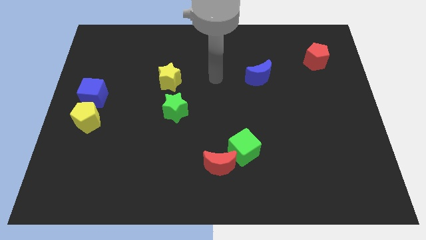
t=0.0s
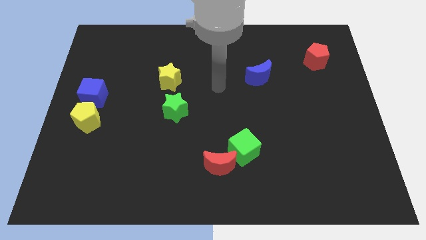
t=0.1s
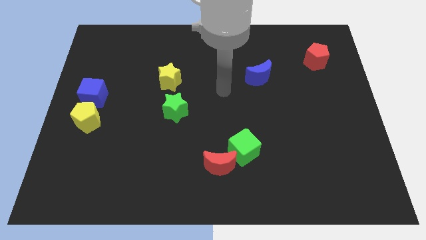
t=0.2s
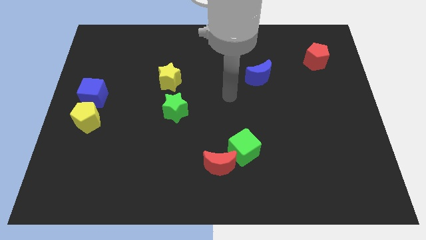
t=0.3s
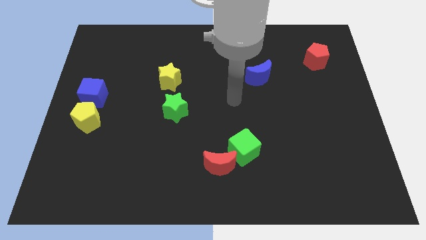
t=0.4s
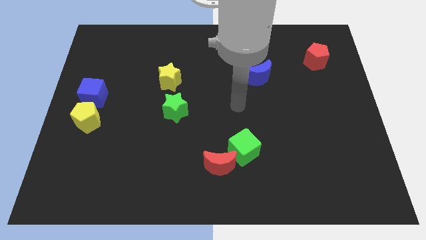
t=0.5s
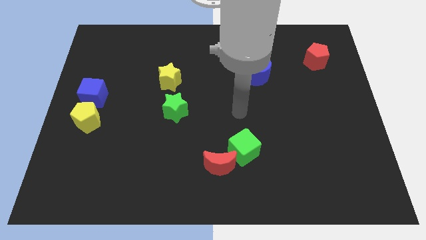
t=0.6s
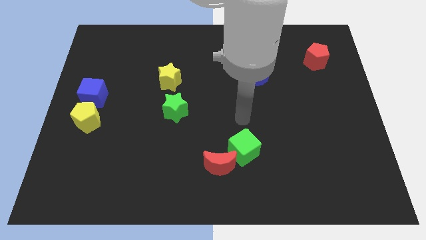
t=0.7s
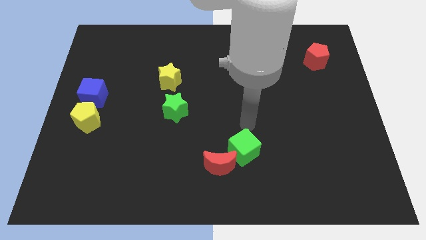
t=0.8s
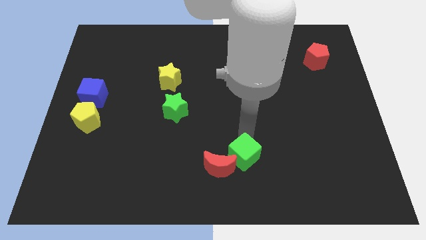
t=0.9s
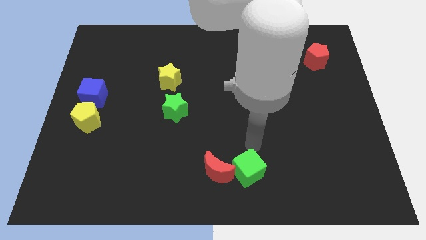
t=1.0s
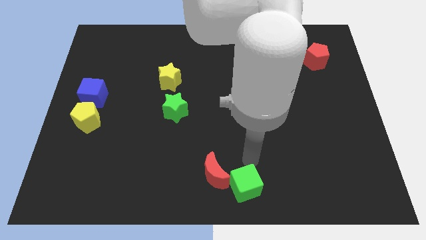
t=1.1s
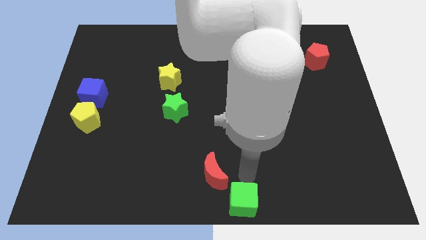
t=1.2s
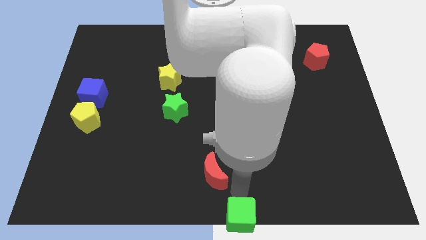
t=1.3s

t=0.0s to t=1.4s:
pull the red moon apart from the green cube

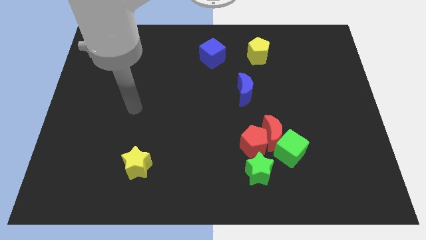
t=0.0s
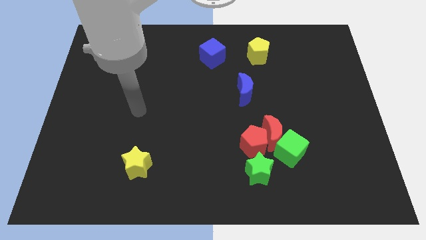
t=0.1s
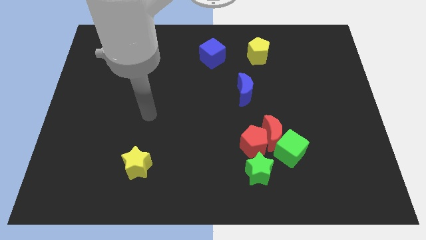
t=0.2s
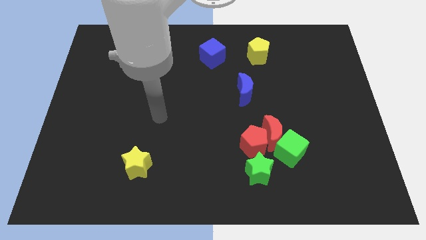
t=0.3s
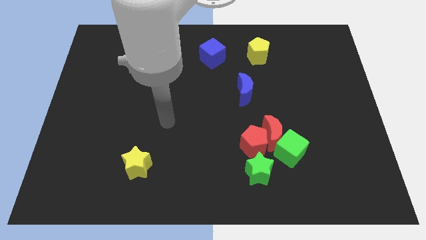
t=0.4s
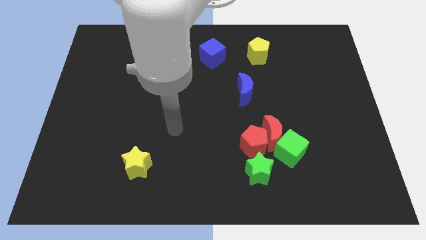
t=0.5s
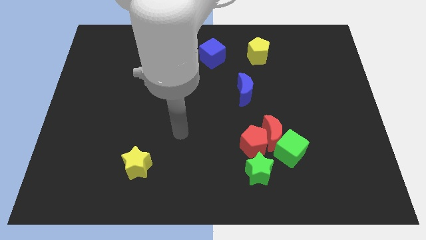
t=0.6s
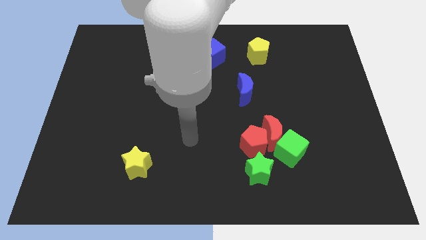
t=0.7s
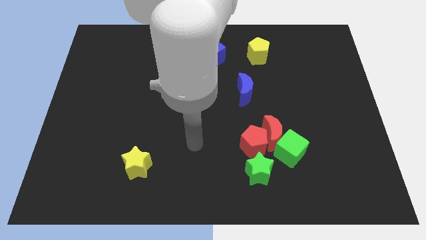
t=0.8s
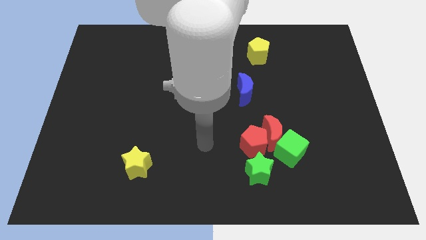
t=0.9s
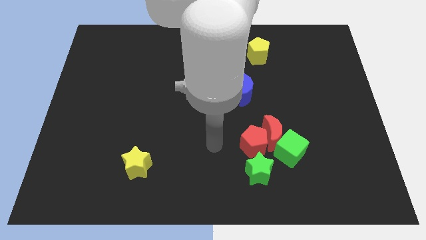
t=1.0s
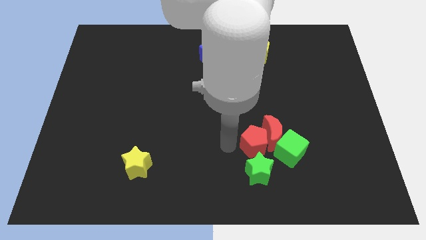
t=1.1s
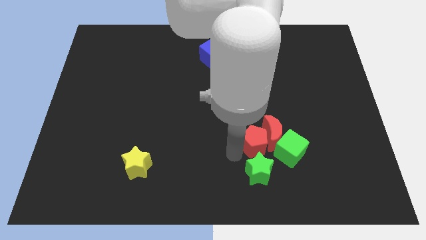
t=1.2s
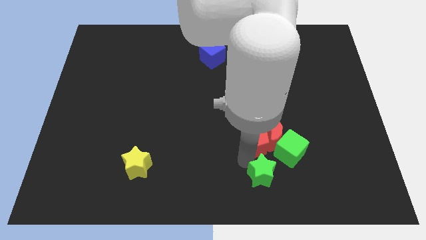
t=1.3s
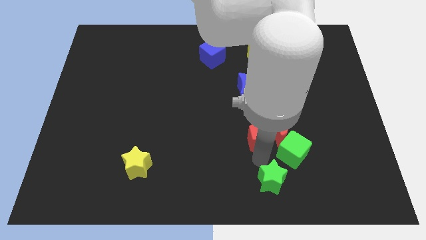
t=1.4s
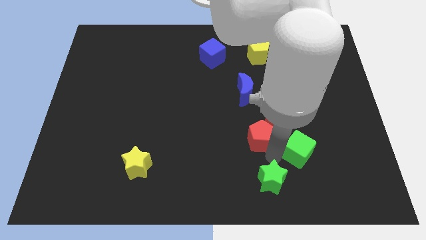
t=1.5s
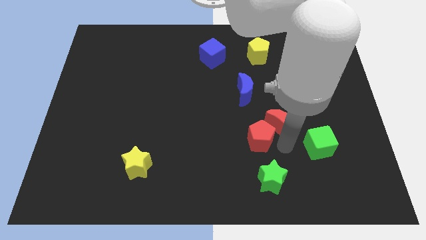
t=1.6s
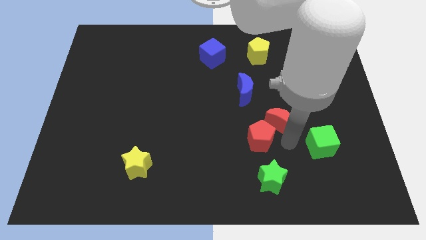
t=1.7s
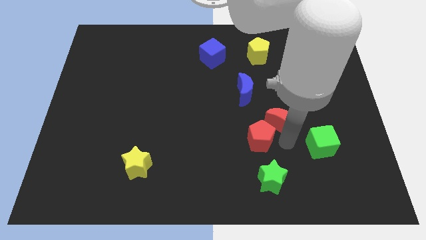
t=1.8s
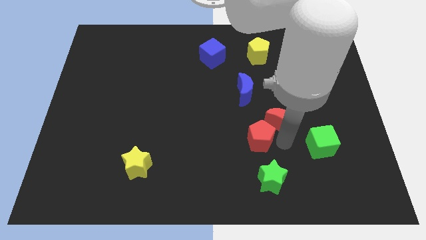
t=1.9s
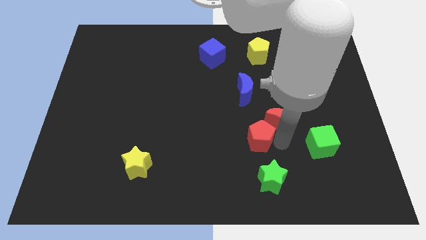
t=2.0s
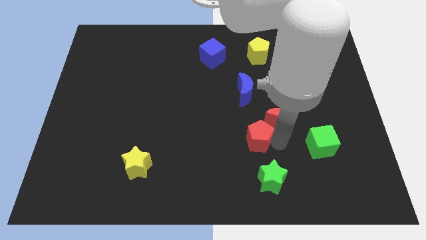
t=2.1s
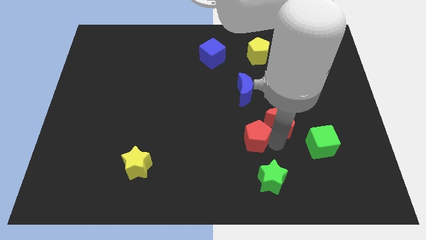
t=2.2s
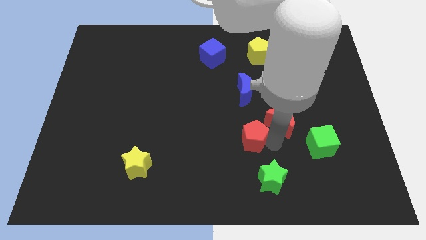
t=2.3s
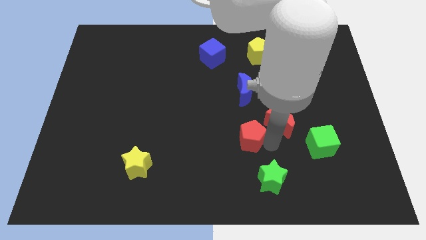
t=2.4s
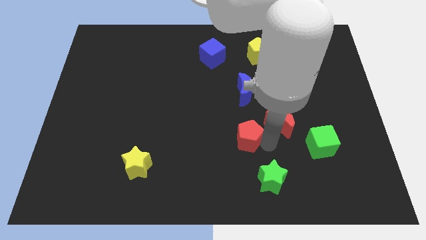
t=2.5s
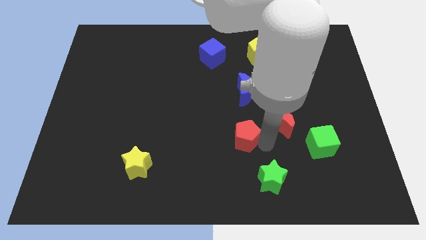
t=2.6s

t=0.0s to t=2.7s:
move the red pentagon away from the clump

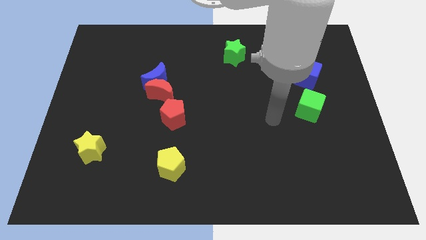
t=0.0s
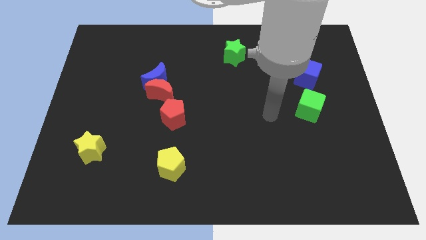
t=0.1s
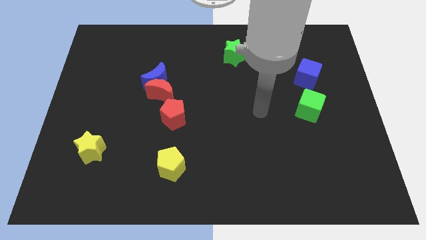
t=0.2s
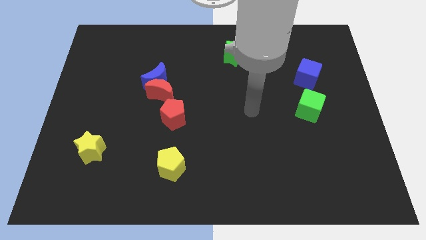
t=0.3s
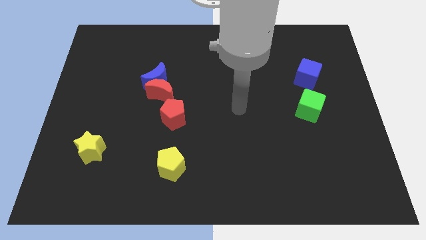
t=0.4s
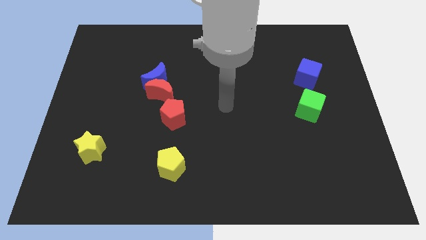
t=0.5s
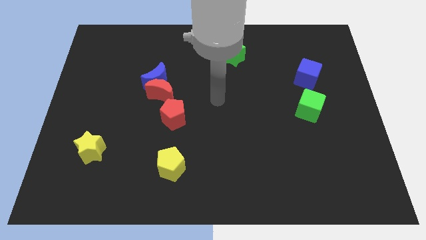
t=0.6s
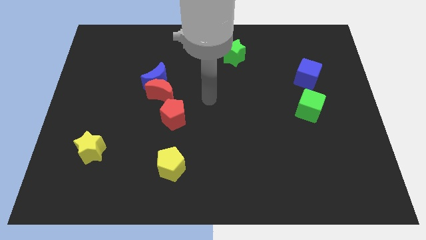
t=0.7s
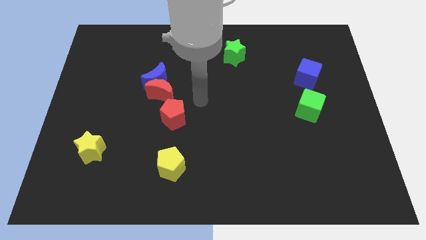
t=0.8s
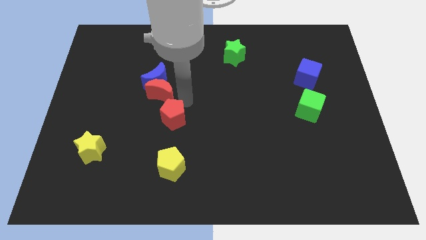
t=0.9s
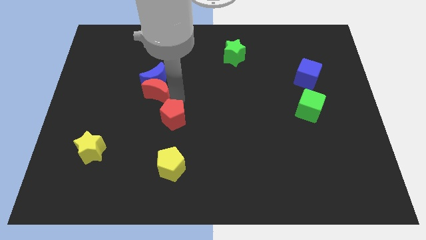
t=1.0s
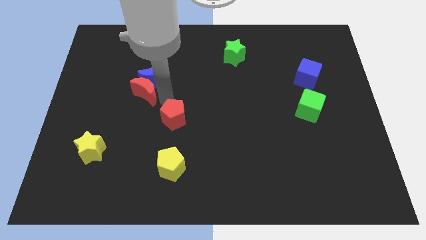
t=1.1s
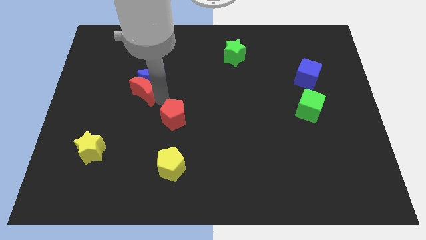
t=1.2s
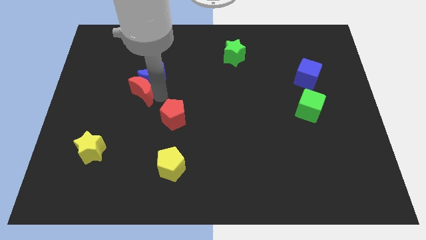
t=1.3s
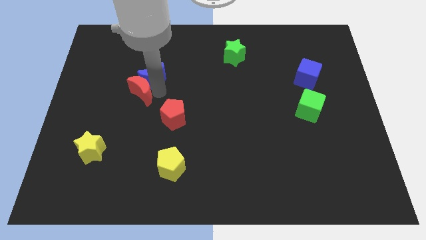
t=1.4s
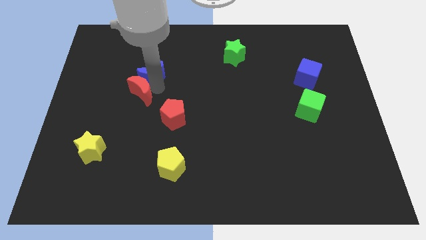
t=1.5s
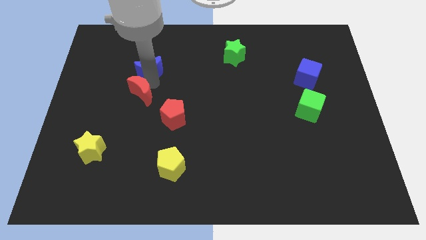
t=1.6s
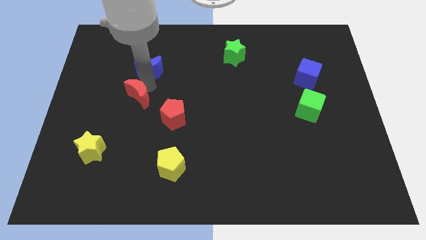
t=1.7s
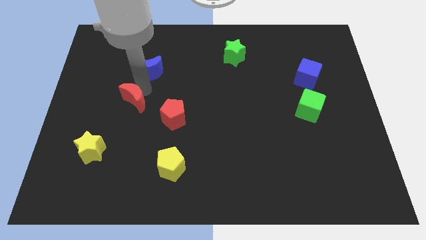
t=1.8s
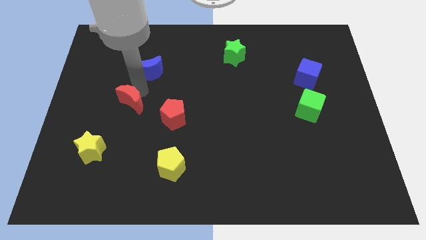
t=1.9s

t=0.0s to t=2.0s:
pull the blue moon apart from the red moon

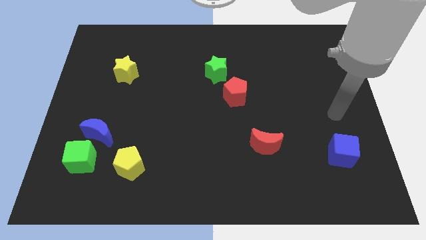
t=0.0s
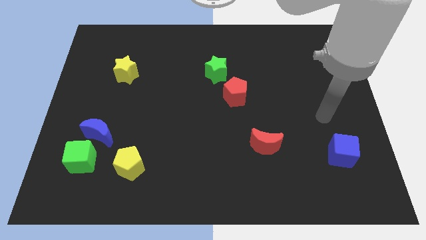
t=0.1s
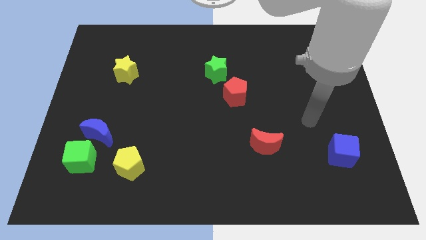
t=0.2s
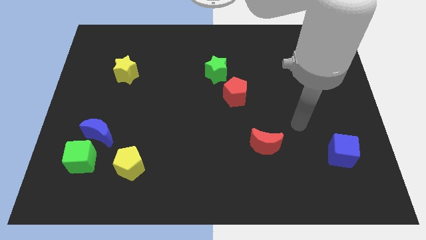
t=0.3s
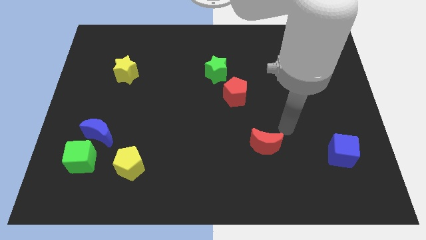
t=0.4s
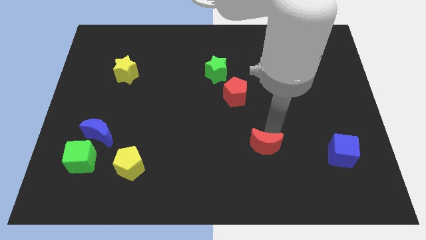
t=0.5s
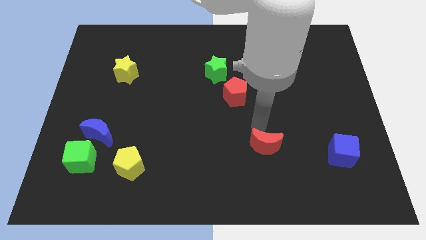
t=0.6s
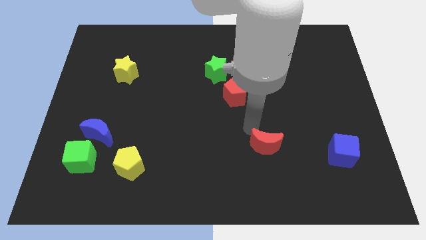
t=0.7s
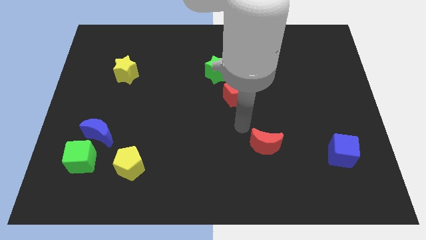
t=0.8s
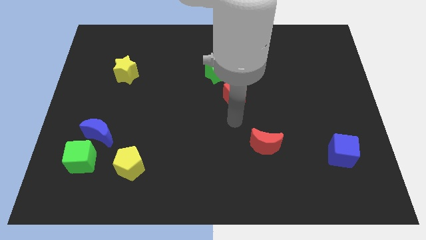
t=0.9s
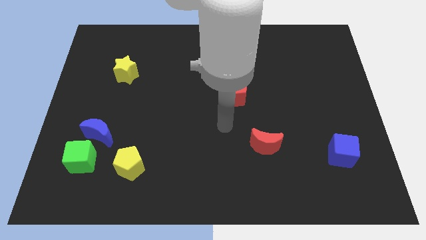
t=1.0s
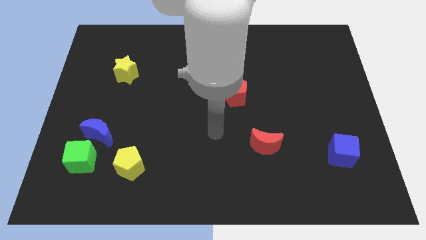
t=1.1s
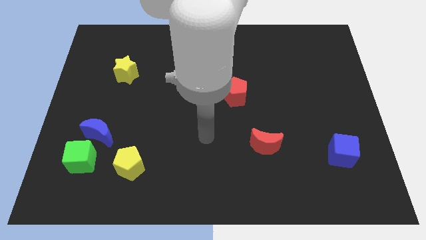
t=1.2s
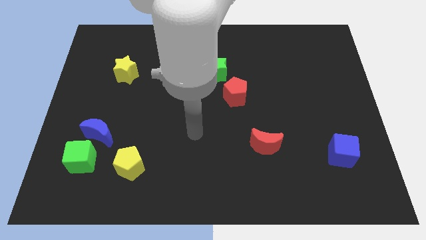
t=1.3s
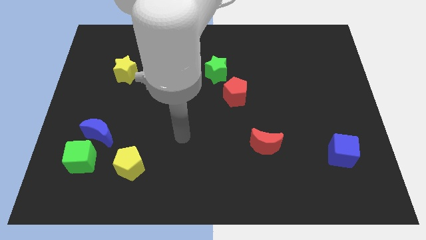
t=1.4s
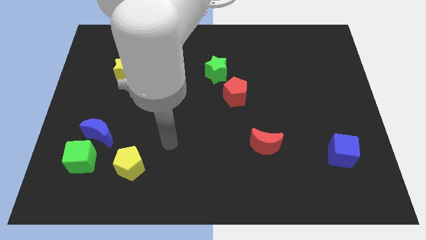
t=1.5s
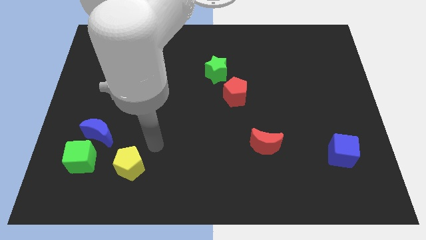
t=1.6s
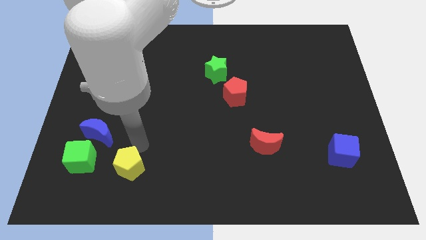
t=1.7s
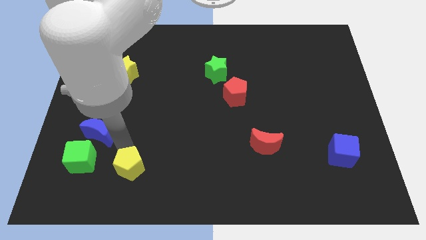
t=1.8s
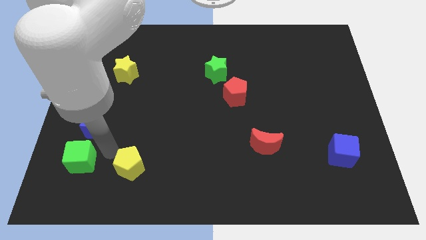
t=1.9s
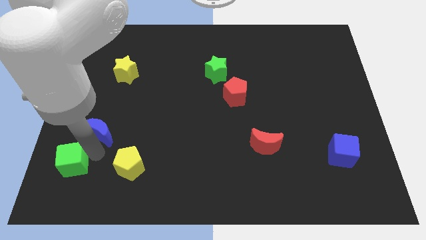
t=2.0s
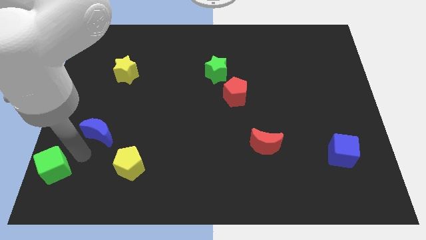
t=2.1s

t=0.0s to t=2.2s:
pull the blue moon apart from the green cube

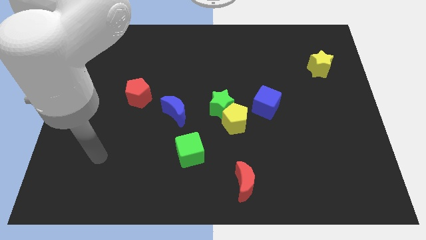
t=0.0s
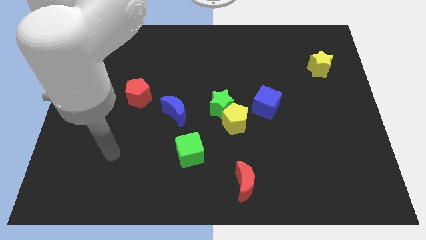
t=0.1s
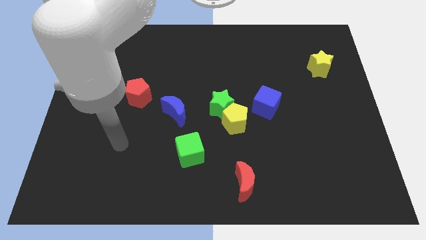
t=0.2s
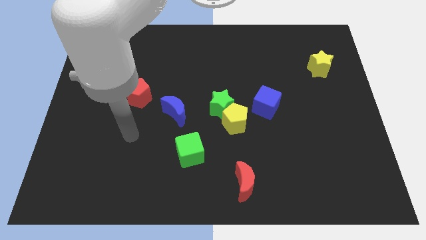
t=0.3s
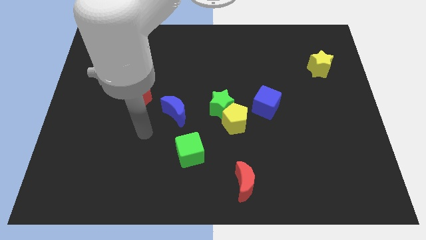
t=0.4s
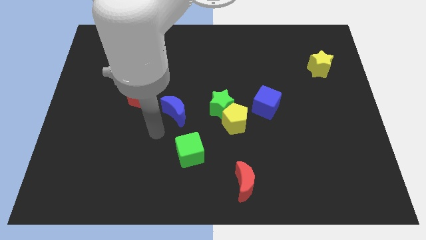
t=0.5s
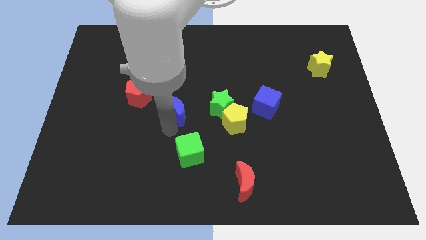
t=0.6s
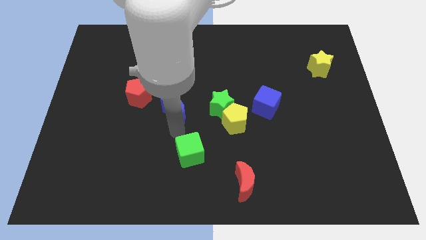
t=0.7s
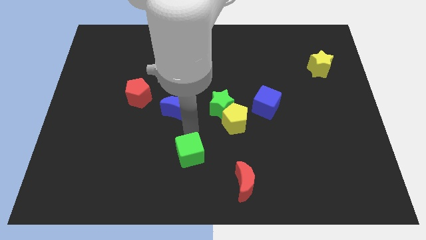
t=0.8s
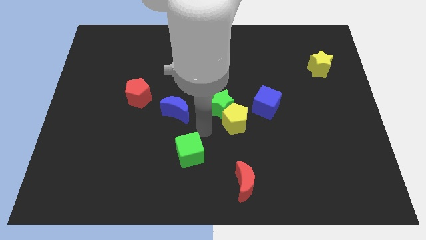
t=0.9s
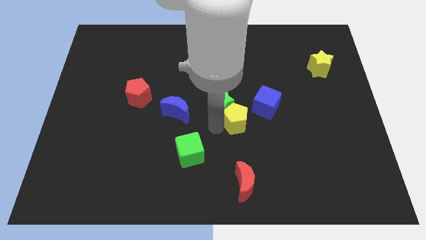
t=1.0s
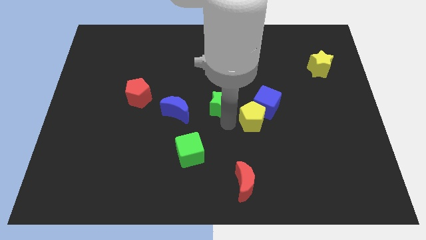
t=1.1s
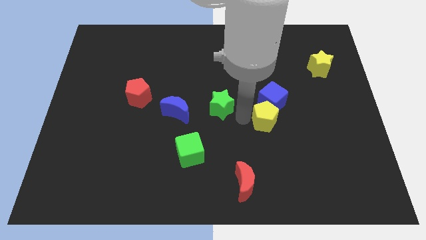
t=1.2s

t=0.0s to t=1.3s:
move the green star away from the yellow pentagon
